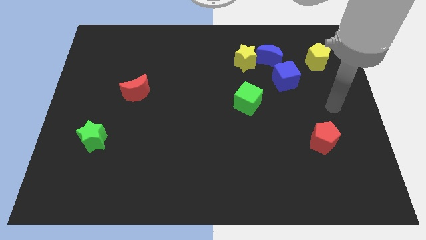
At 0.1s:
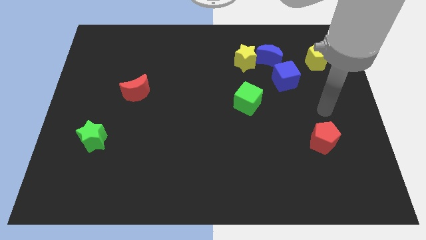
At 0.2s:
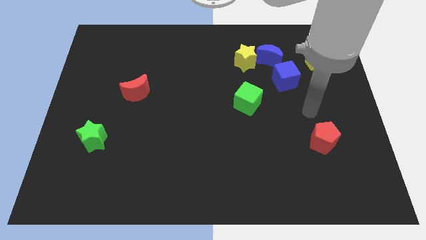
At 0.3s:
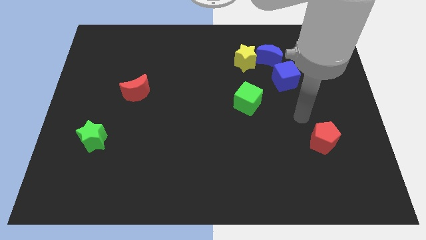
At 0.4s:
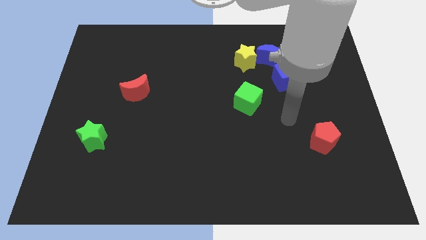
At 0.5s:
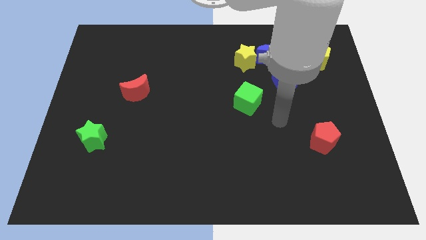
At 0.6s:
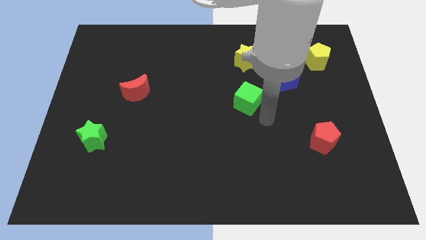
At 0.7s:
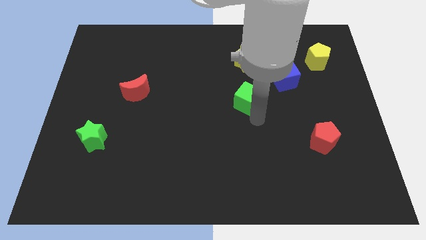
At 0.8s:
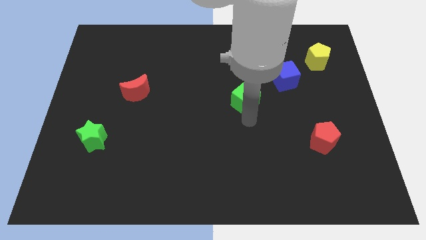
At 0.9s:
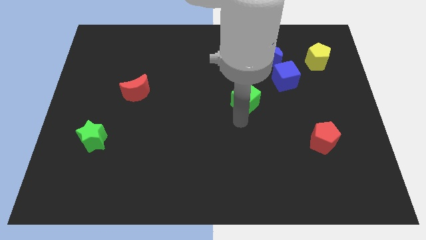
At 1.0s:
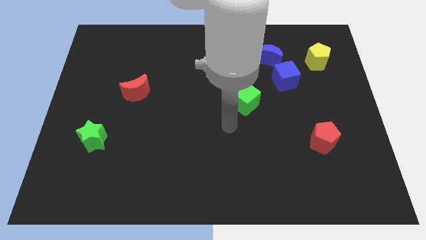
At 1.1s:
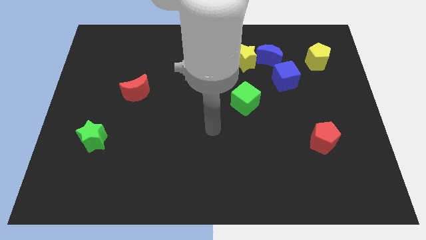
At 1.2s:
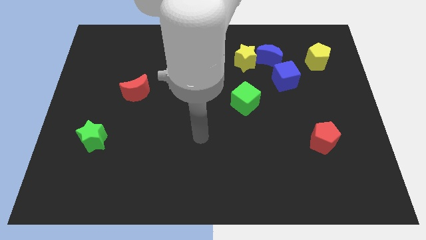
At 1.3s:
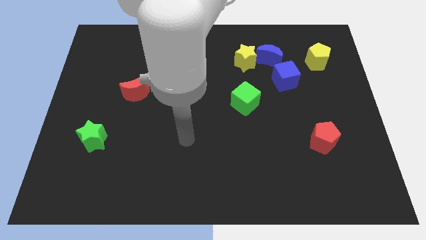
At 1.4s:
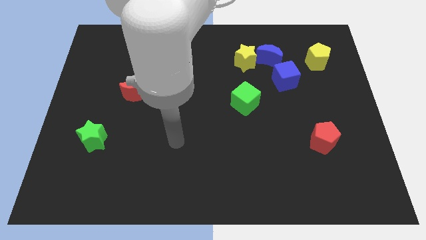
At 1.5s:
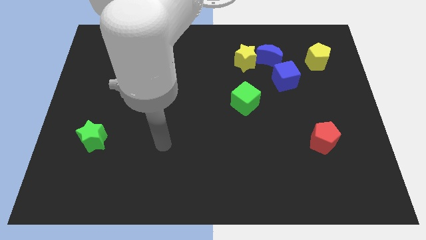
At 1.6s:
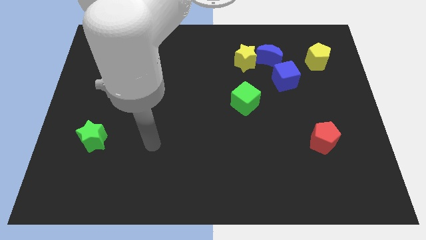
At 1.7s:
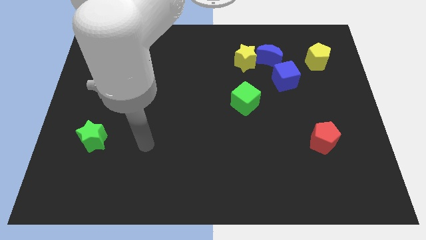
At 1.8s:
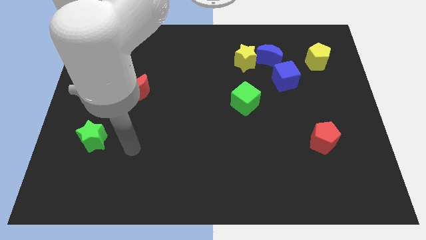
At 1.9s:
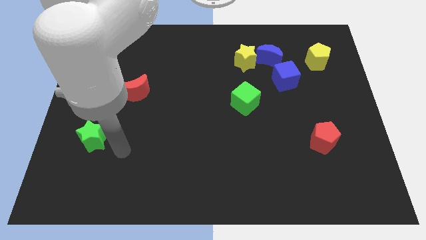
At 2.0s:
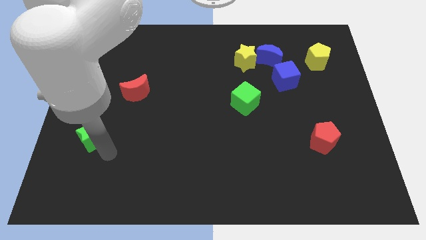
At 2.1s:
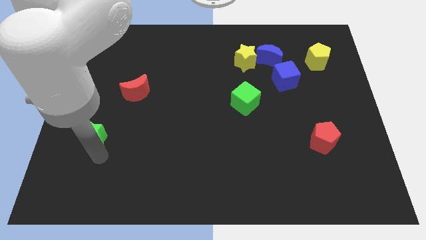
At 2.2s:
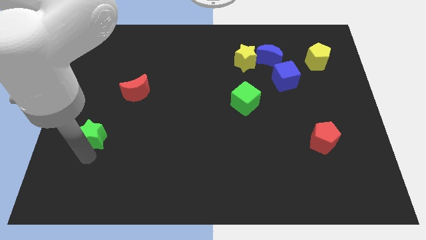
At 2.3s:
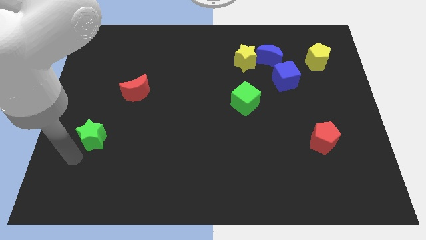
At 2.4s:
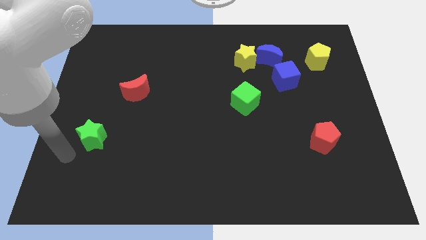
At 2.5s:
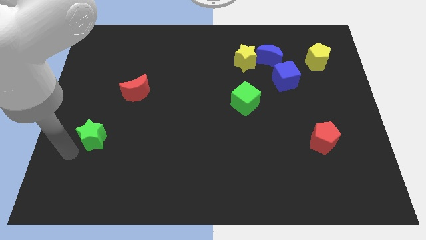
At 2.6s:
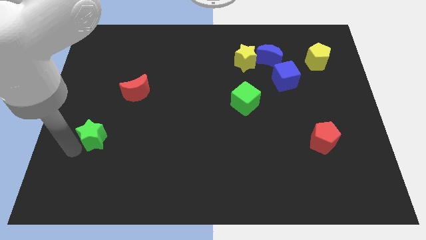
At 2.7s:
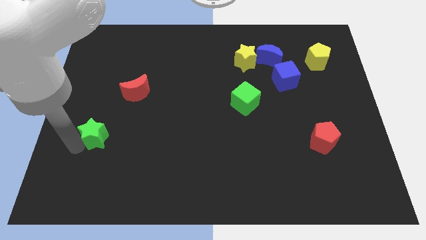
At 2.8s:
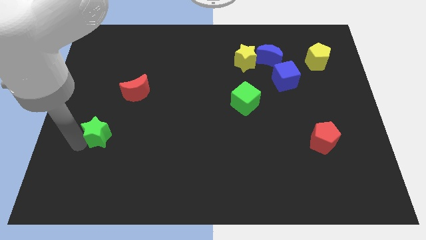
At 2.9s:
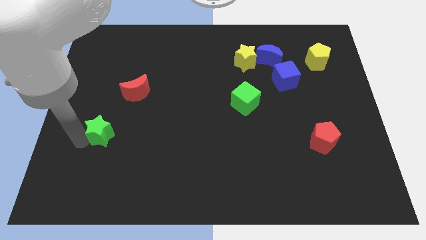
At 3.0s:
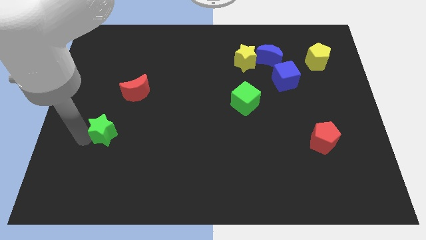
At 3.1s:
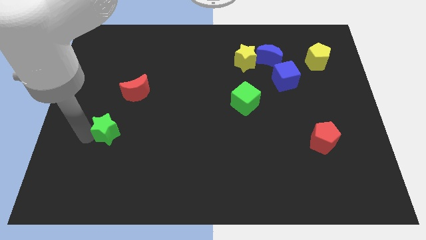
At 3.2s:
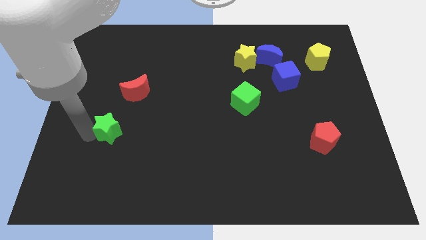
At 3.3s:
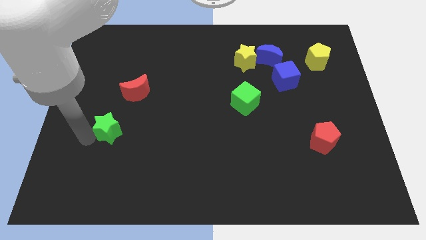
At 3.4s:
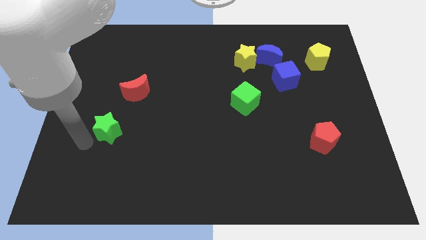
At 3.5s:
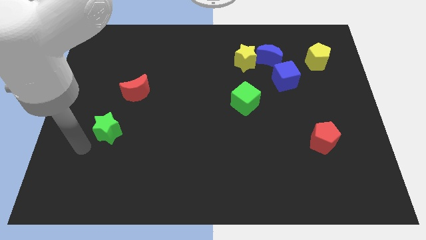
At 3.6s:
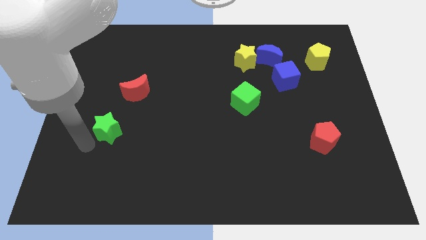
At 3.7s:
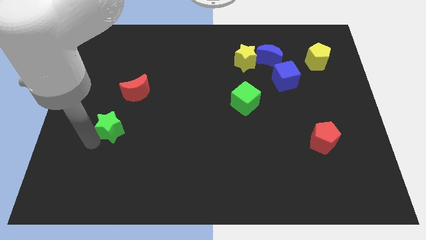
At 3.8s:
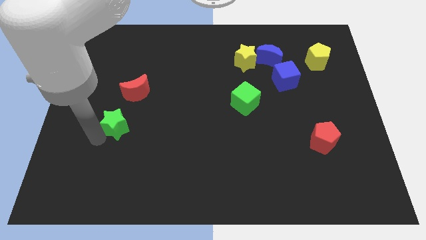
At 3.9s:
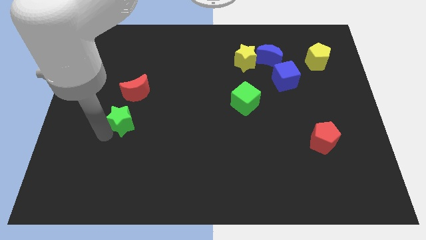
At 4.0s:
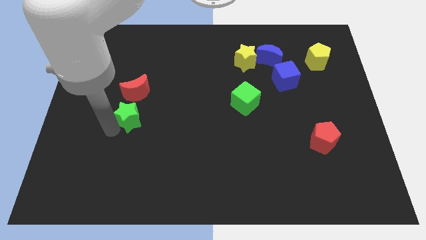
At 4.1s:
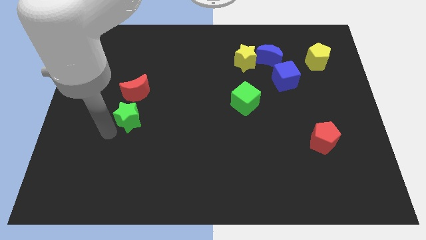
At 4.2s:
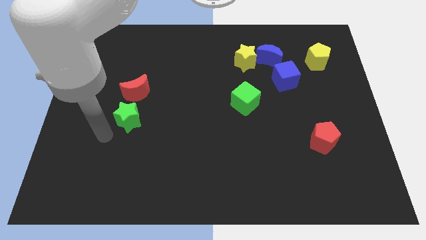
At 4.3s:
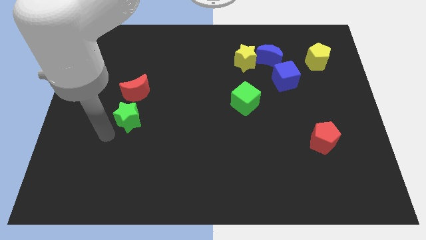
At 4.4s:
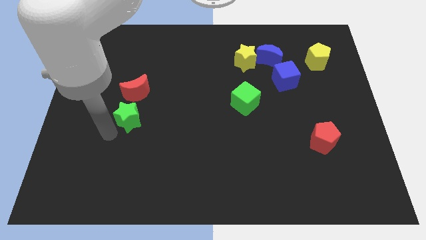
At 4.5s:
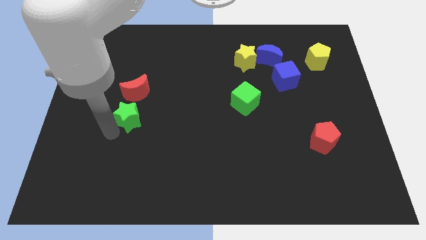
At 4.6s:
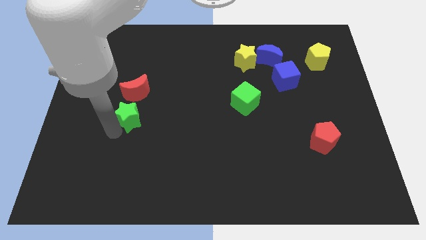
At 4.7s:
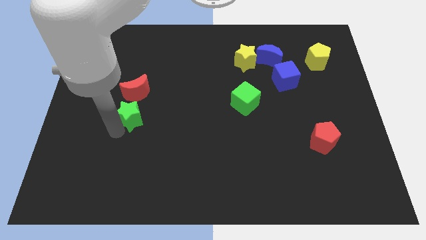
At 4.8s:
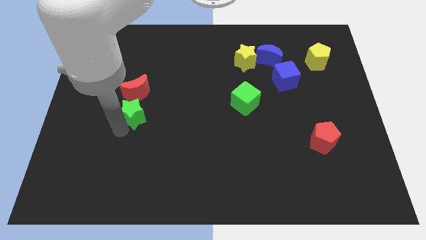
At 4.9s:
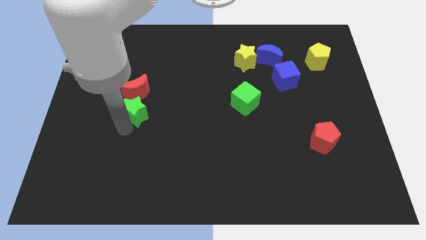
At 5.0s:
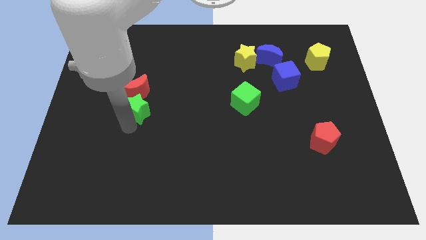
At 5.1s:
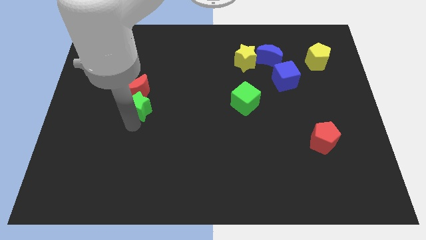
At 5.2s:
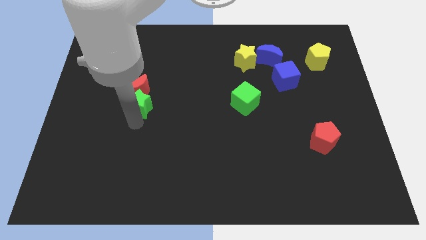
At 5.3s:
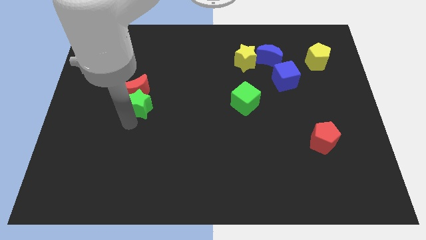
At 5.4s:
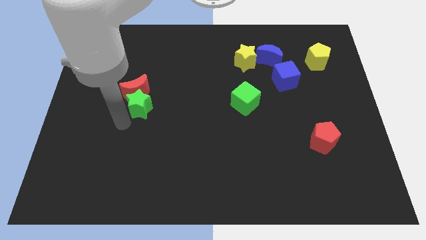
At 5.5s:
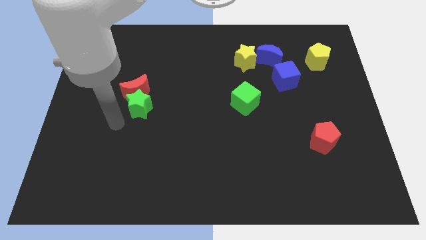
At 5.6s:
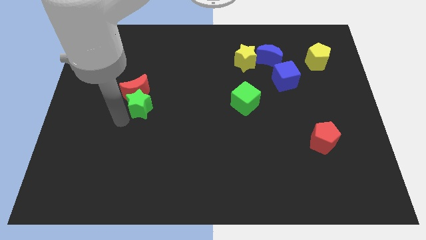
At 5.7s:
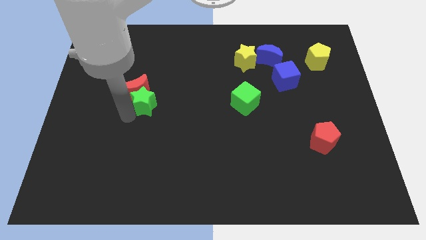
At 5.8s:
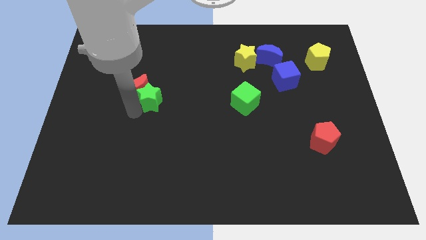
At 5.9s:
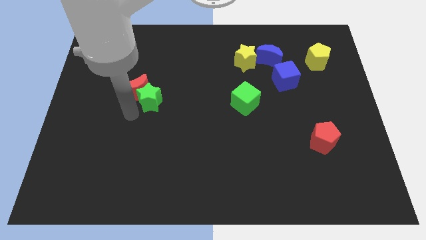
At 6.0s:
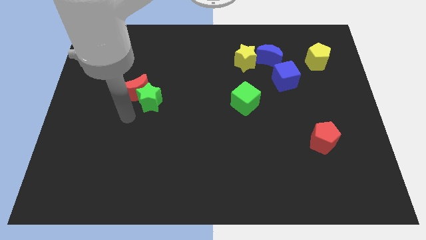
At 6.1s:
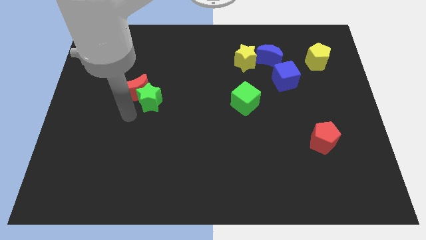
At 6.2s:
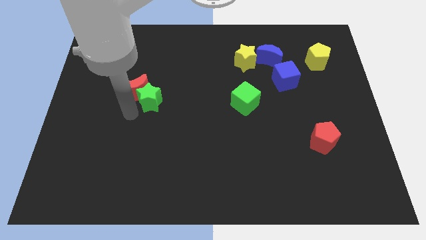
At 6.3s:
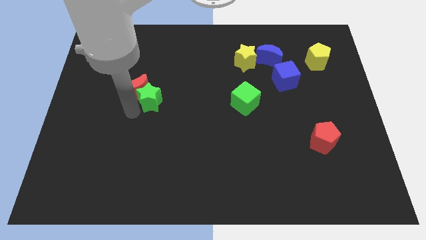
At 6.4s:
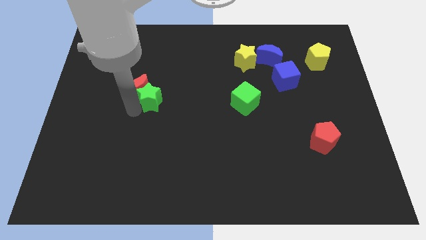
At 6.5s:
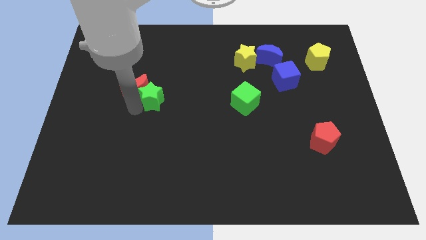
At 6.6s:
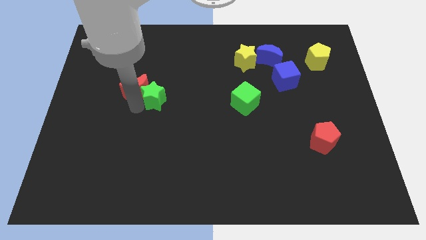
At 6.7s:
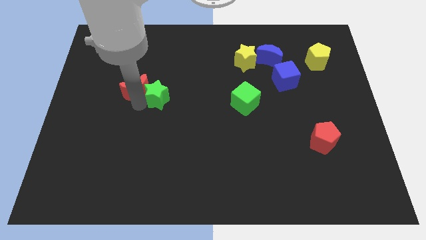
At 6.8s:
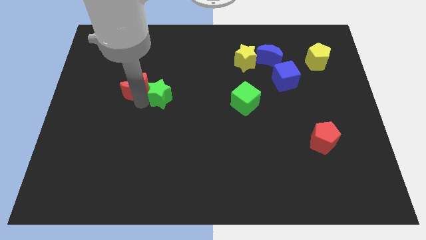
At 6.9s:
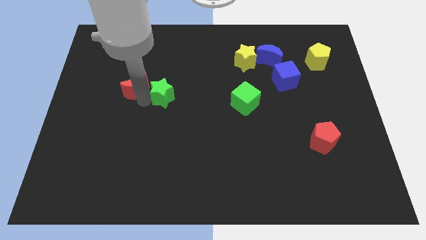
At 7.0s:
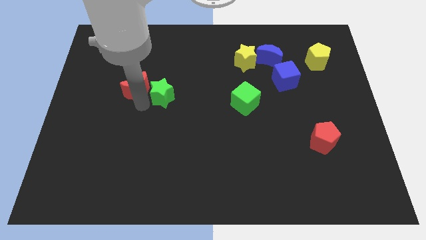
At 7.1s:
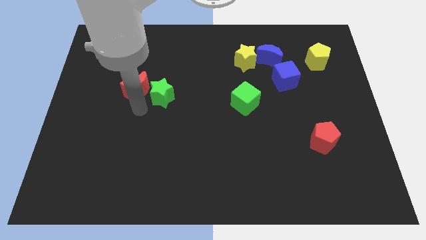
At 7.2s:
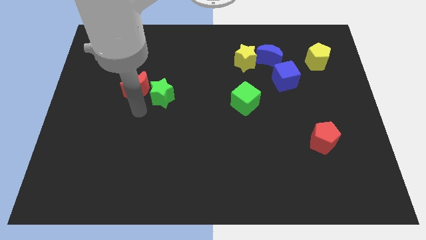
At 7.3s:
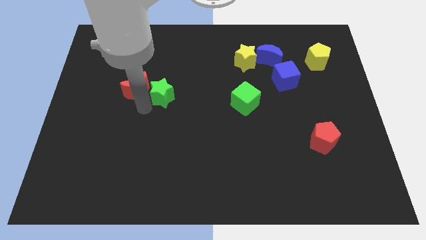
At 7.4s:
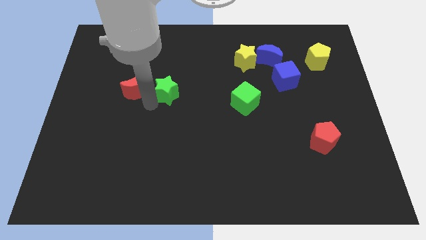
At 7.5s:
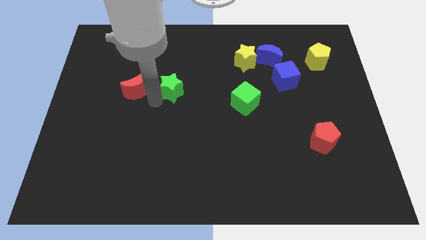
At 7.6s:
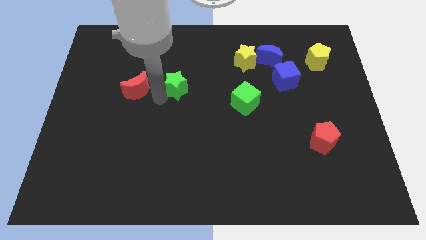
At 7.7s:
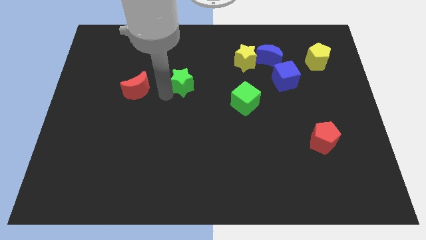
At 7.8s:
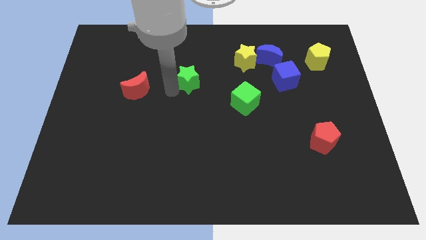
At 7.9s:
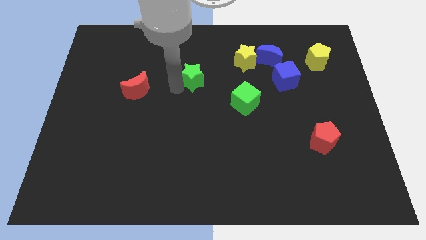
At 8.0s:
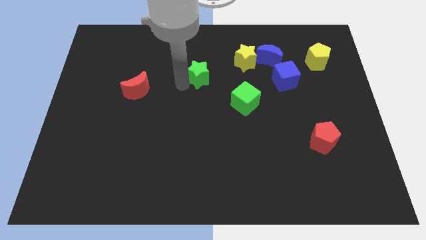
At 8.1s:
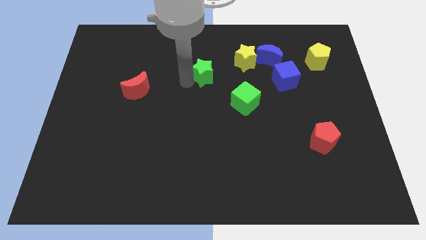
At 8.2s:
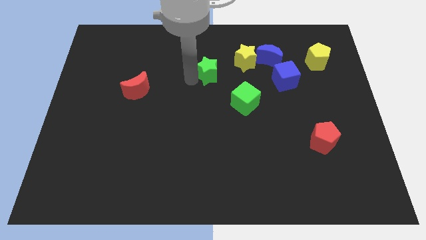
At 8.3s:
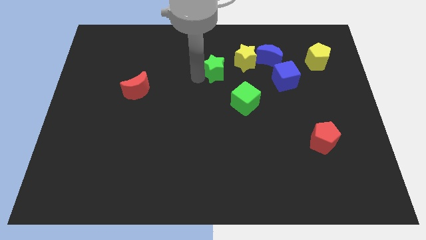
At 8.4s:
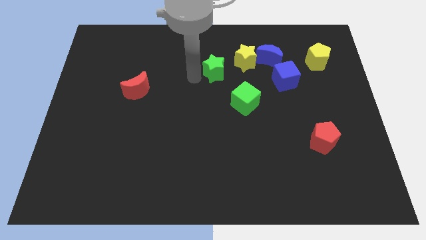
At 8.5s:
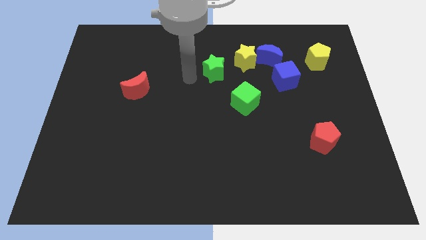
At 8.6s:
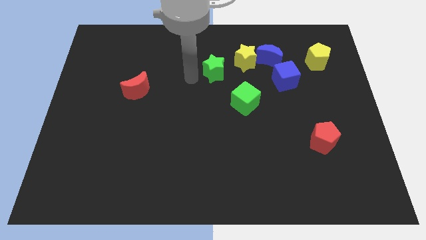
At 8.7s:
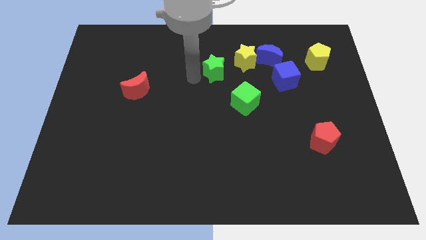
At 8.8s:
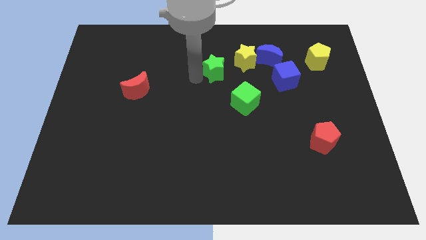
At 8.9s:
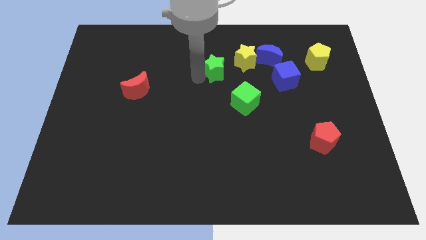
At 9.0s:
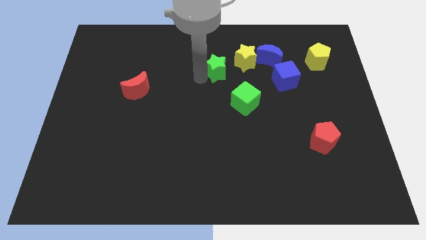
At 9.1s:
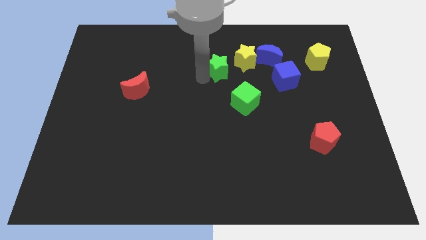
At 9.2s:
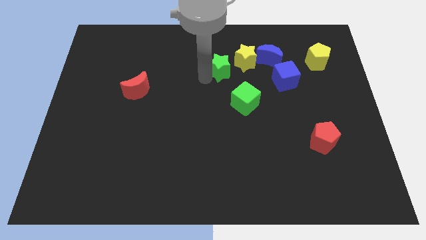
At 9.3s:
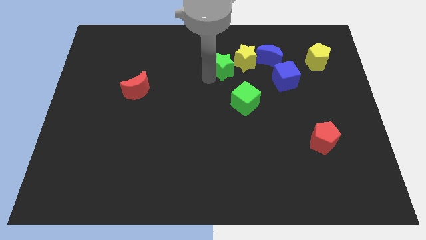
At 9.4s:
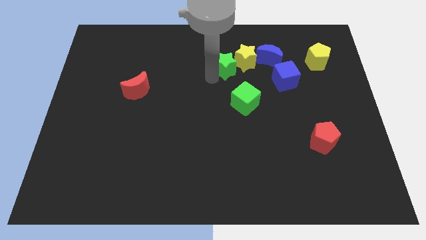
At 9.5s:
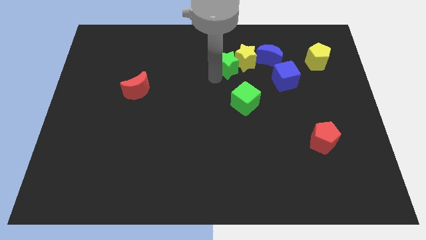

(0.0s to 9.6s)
slide the green star close to the yellow star
